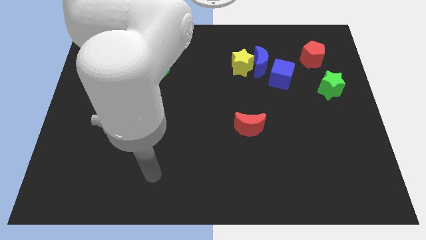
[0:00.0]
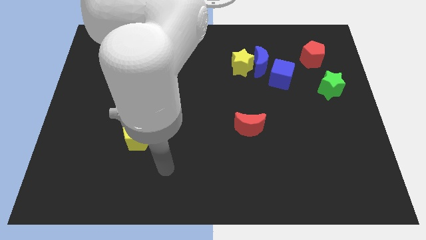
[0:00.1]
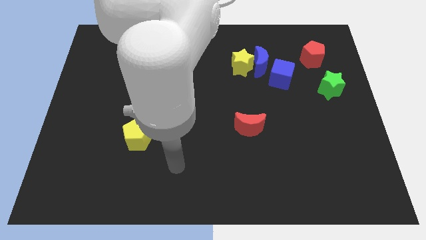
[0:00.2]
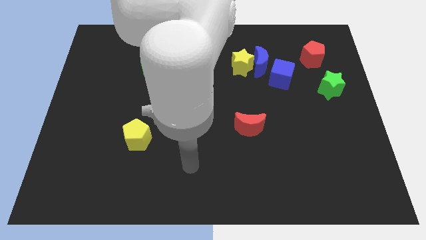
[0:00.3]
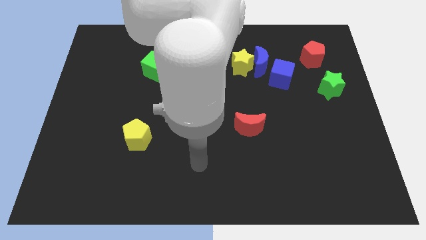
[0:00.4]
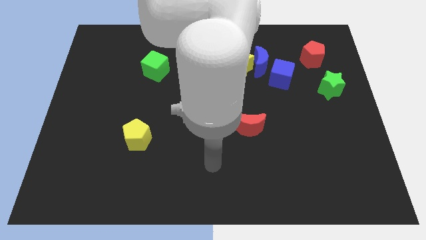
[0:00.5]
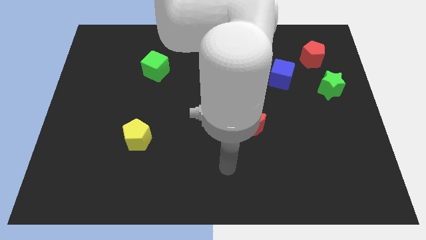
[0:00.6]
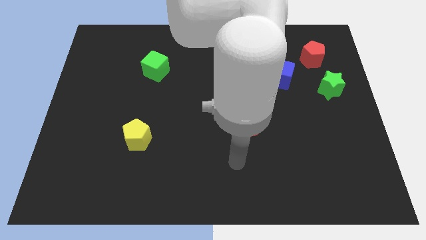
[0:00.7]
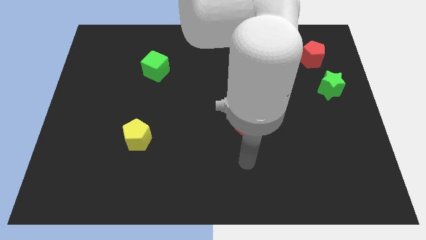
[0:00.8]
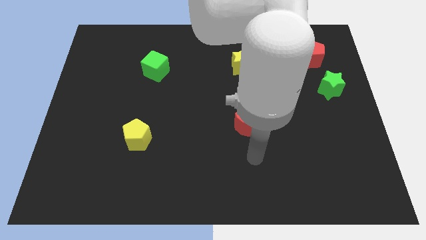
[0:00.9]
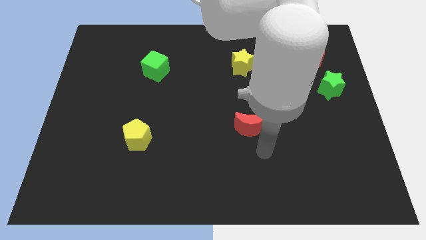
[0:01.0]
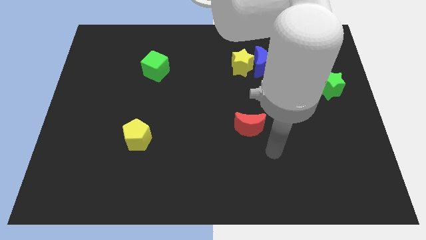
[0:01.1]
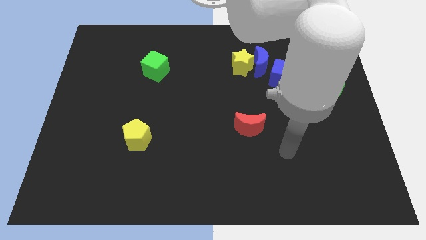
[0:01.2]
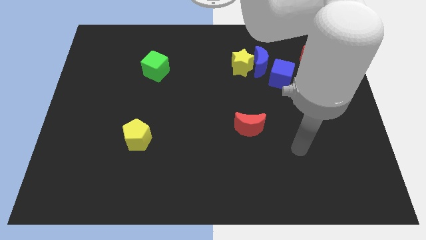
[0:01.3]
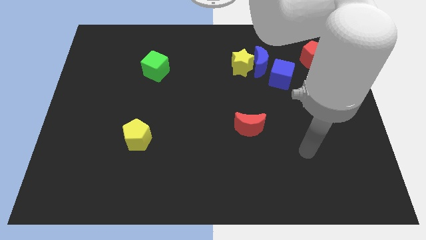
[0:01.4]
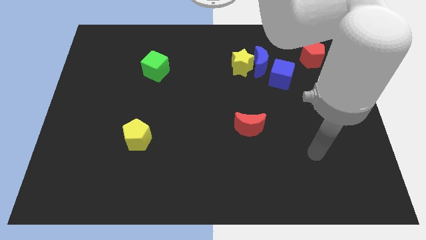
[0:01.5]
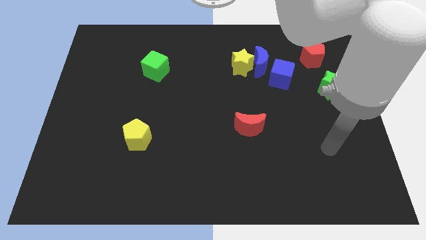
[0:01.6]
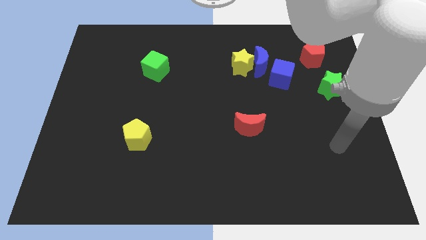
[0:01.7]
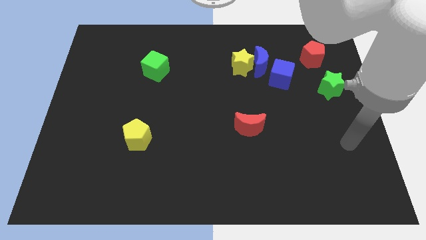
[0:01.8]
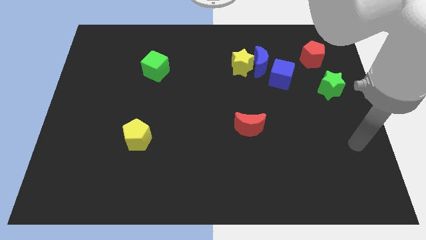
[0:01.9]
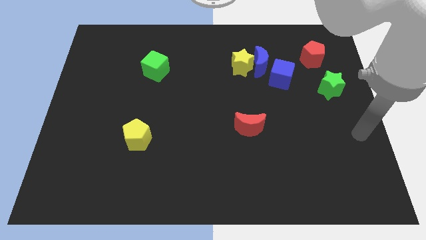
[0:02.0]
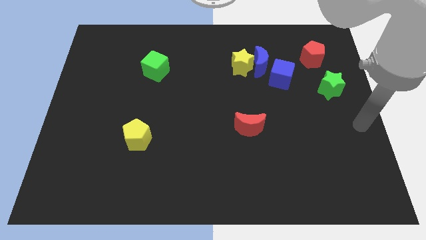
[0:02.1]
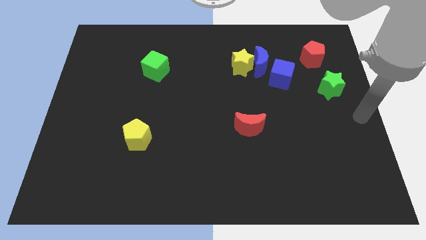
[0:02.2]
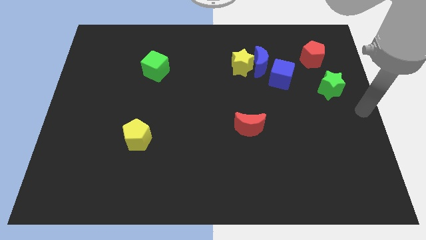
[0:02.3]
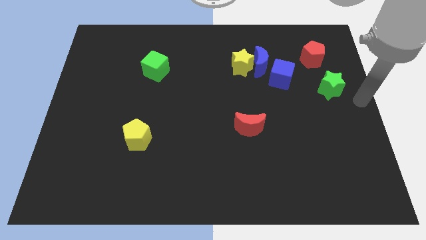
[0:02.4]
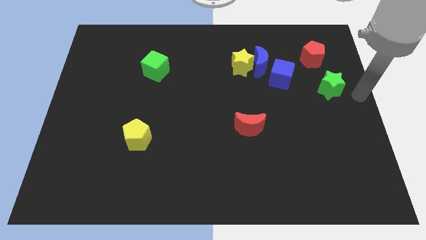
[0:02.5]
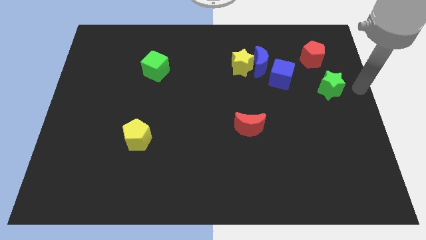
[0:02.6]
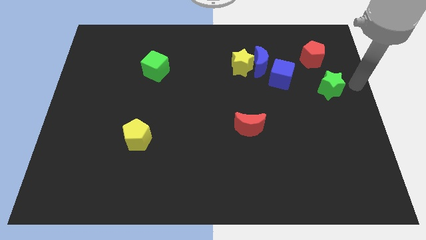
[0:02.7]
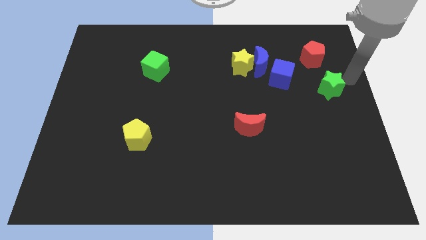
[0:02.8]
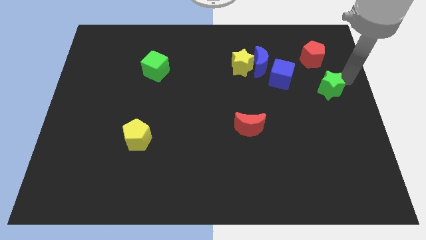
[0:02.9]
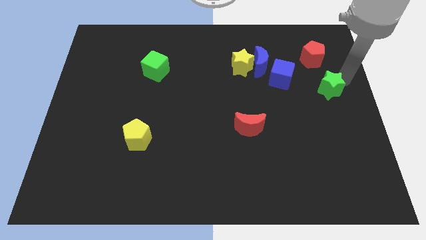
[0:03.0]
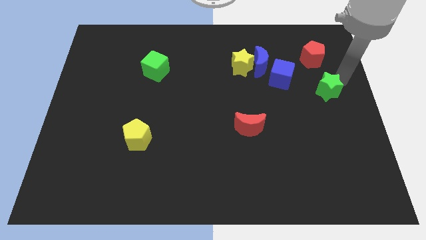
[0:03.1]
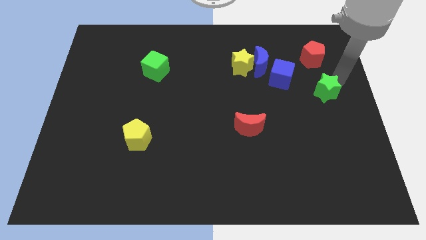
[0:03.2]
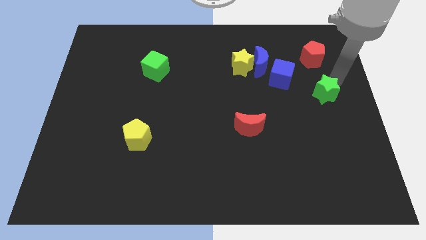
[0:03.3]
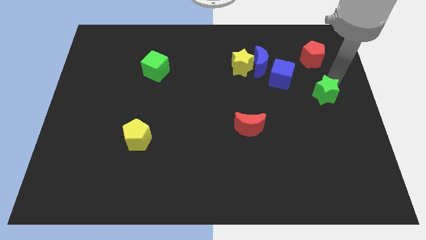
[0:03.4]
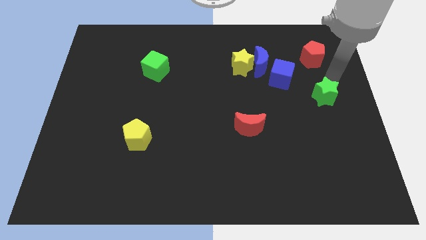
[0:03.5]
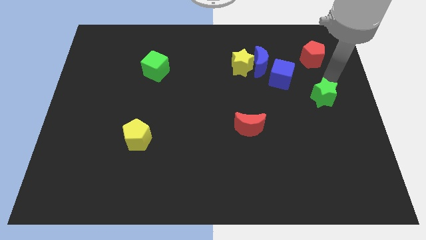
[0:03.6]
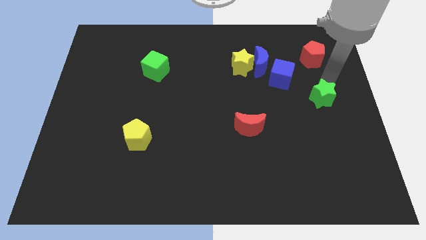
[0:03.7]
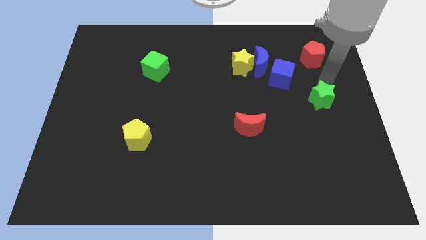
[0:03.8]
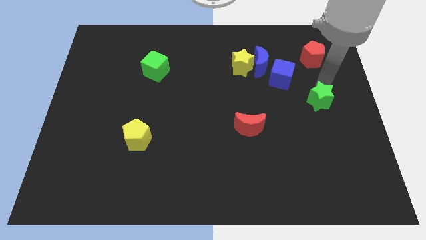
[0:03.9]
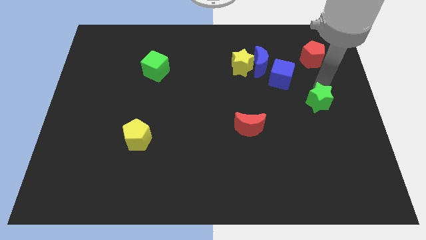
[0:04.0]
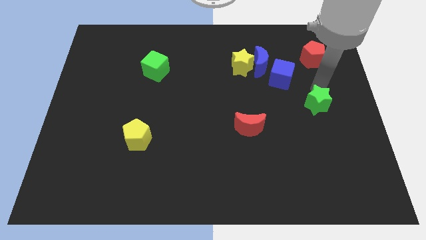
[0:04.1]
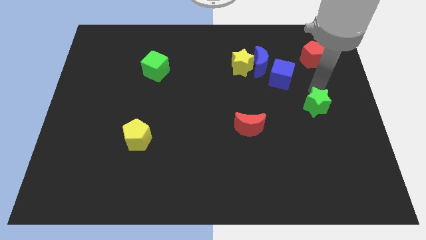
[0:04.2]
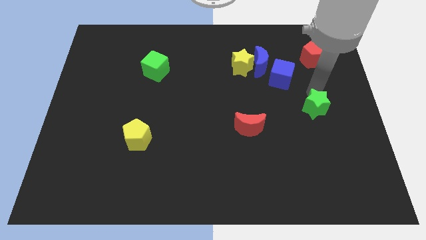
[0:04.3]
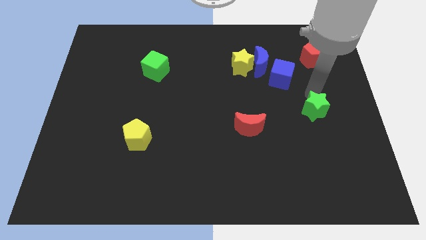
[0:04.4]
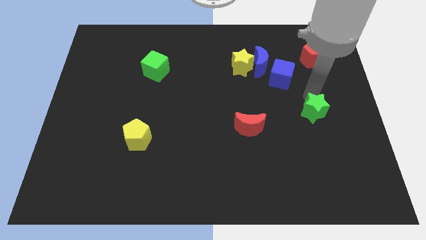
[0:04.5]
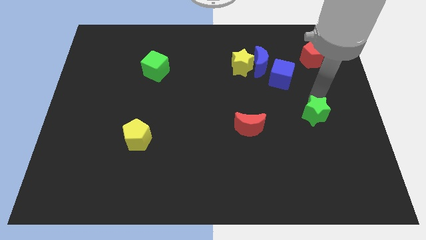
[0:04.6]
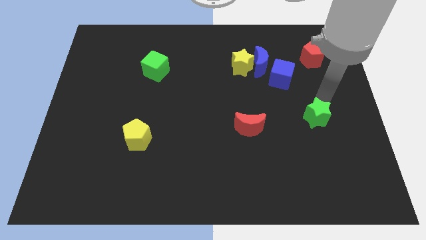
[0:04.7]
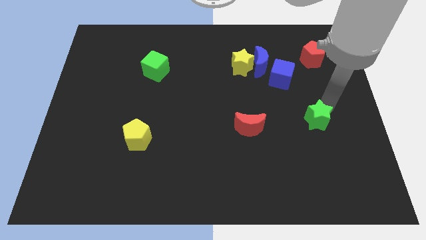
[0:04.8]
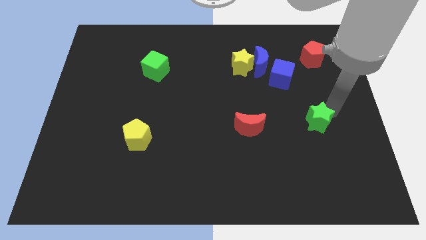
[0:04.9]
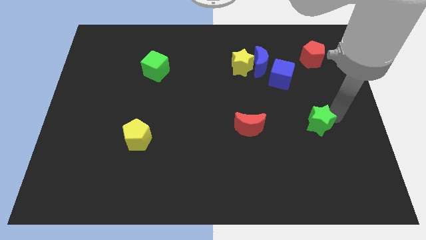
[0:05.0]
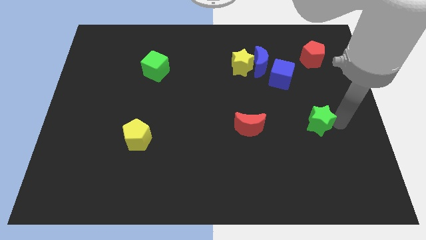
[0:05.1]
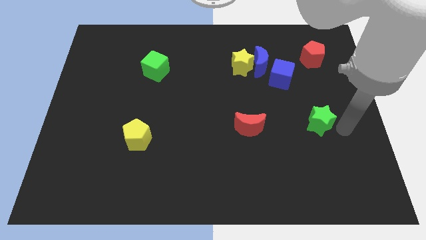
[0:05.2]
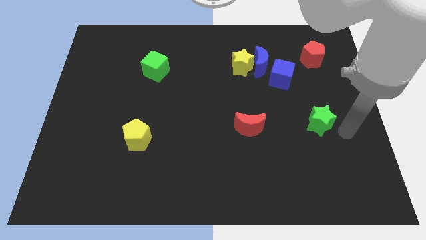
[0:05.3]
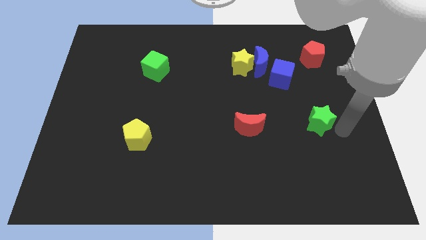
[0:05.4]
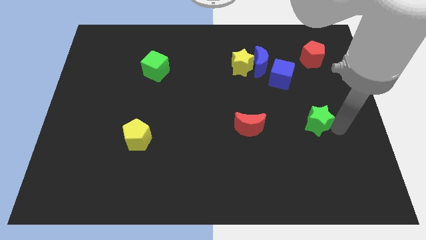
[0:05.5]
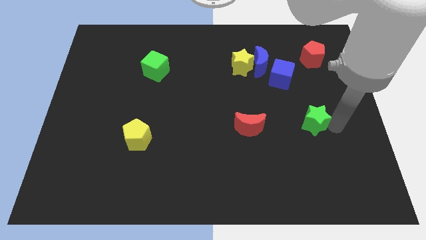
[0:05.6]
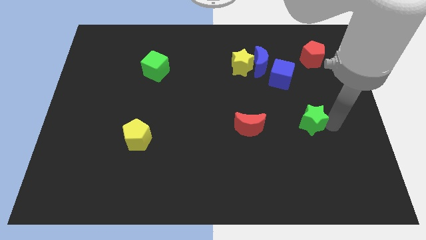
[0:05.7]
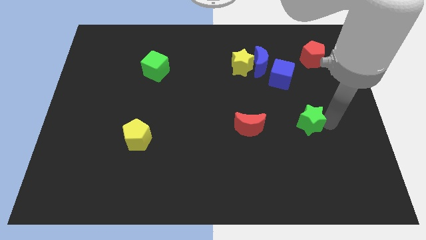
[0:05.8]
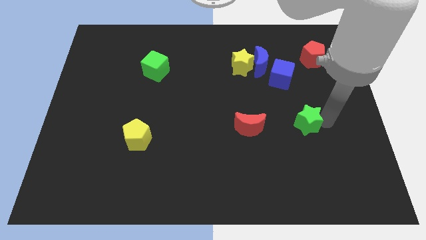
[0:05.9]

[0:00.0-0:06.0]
put the green star to the bottom side of the blue cube

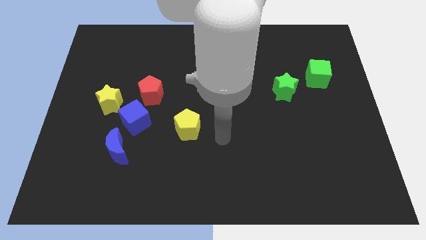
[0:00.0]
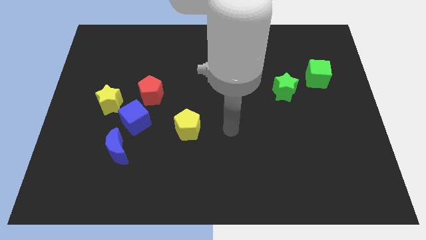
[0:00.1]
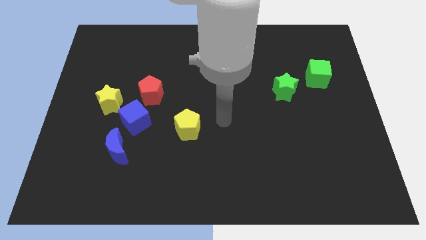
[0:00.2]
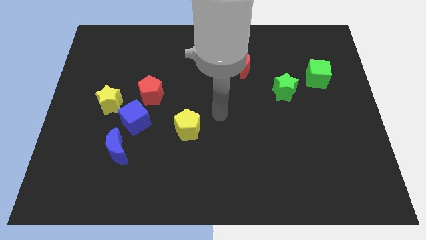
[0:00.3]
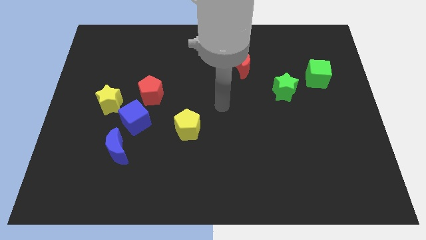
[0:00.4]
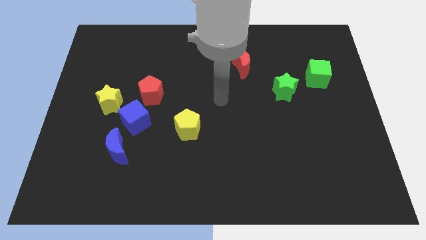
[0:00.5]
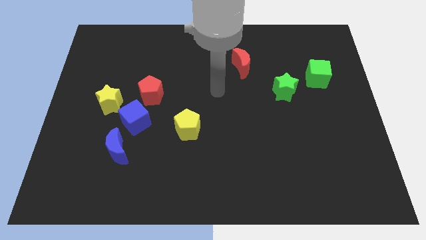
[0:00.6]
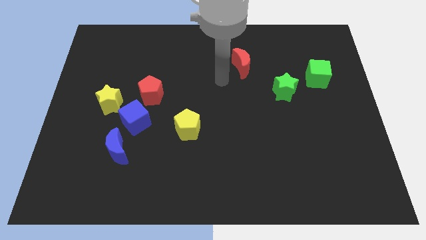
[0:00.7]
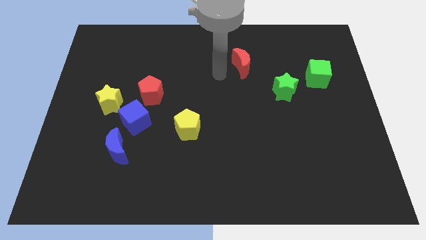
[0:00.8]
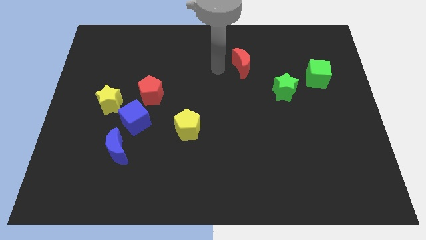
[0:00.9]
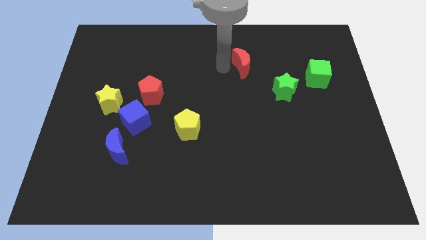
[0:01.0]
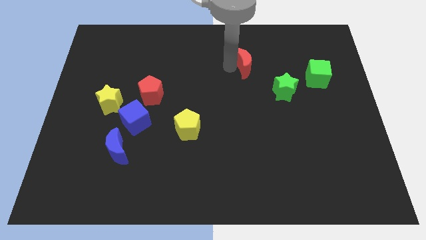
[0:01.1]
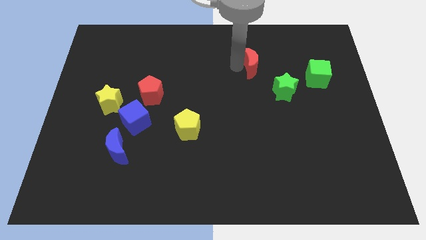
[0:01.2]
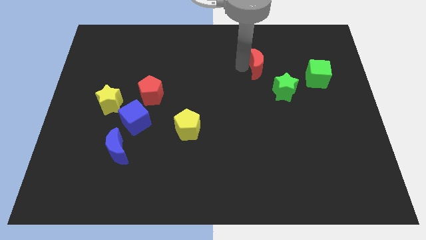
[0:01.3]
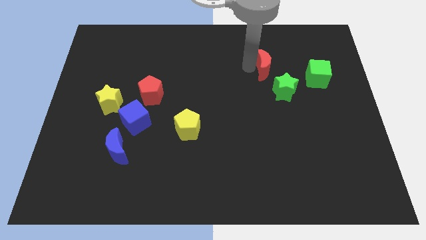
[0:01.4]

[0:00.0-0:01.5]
push the red moon to the top of the green star

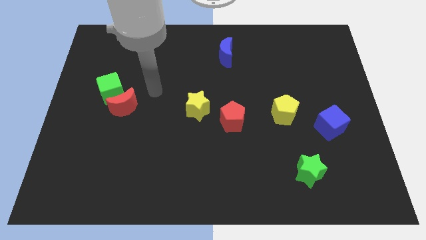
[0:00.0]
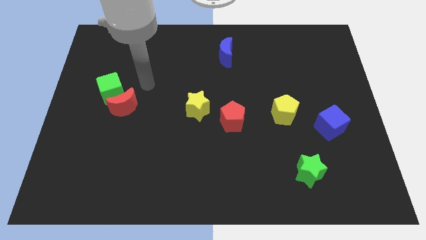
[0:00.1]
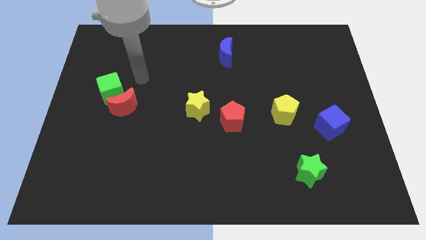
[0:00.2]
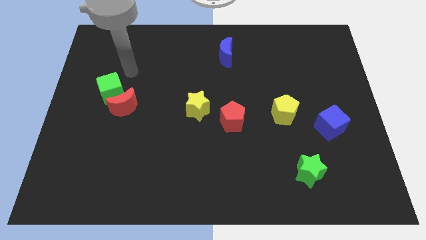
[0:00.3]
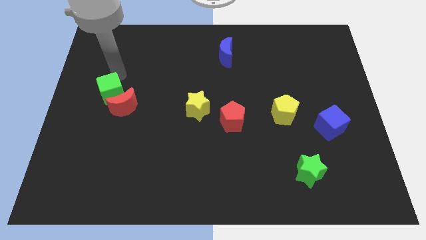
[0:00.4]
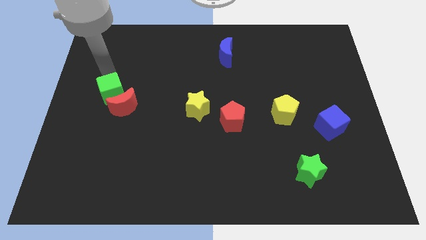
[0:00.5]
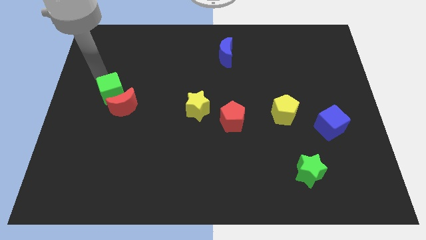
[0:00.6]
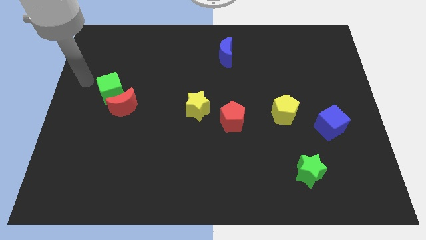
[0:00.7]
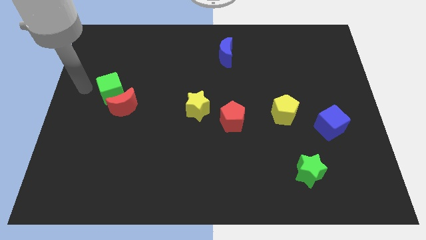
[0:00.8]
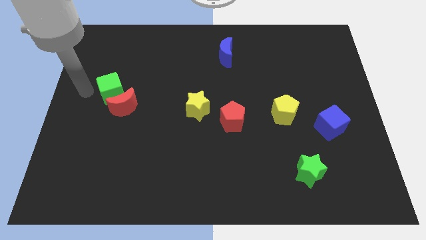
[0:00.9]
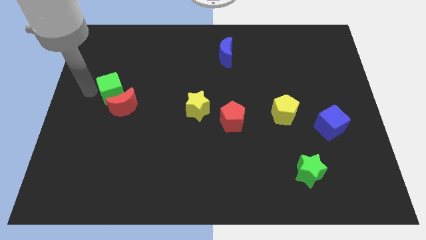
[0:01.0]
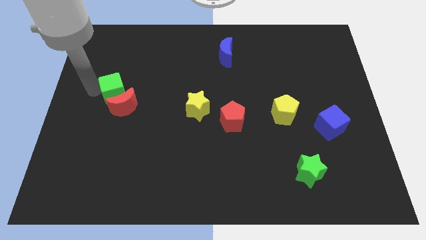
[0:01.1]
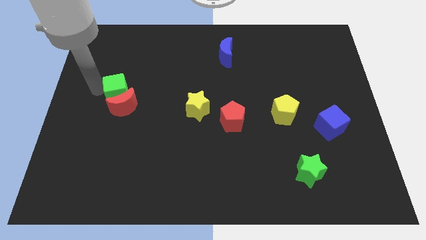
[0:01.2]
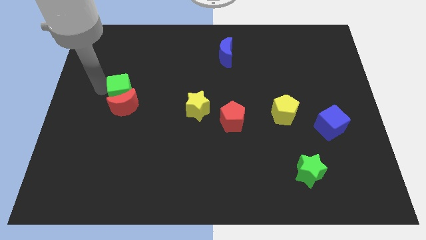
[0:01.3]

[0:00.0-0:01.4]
push the green cube to the top right of the red moon
